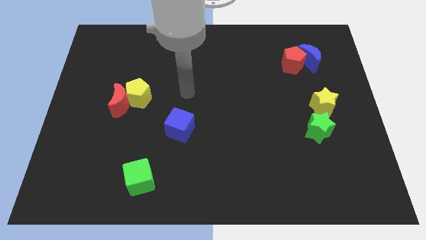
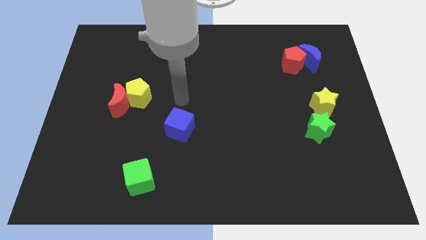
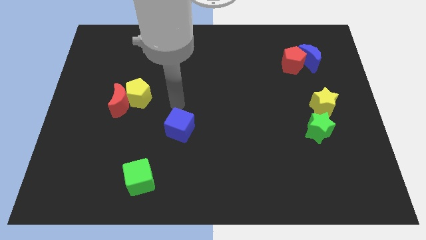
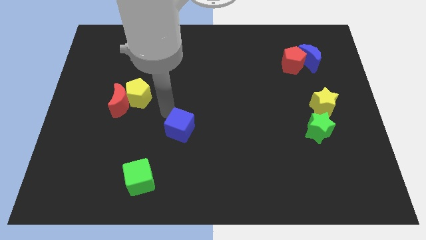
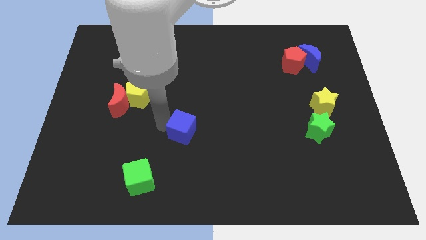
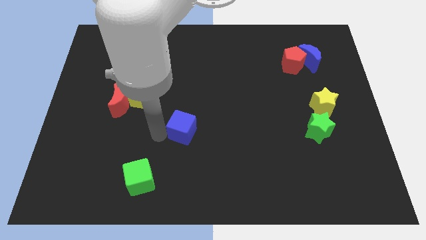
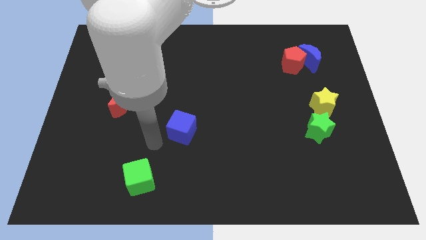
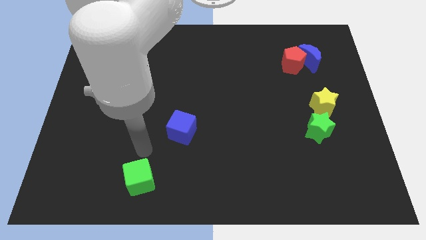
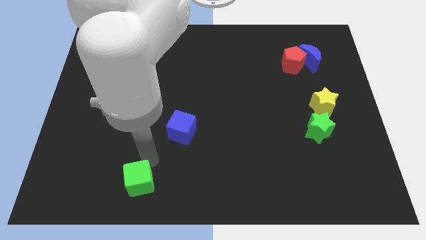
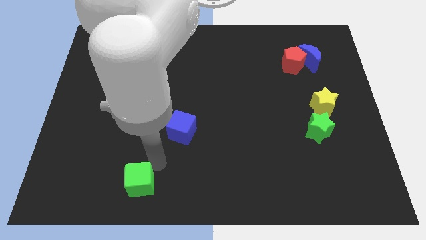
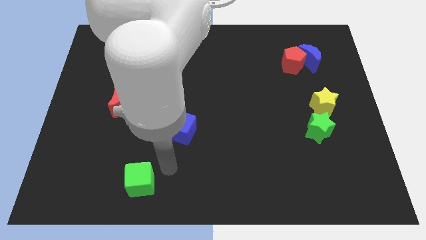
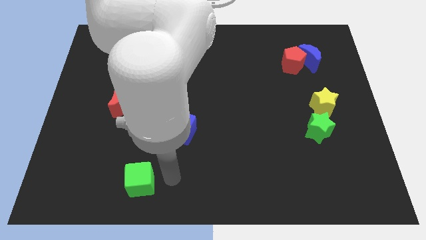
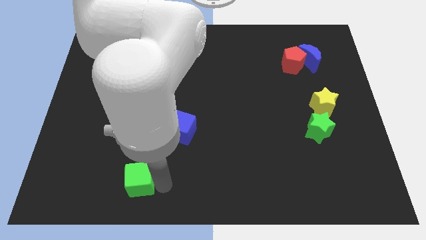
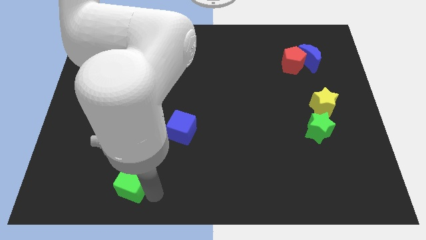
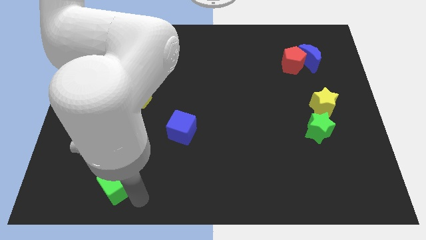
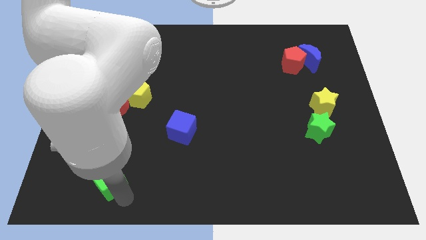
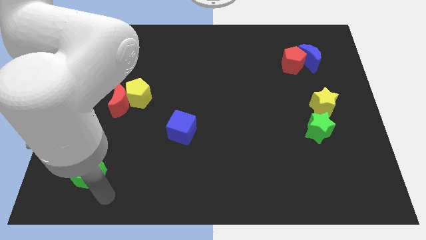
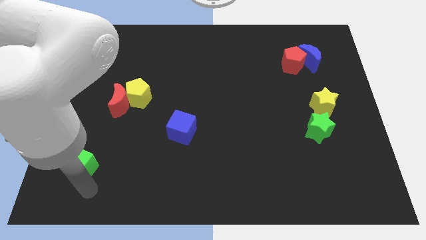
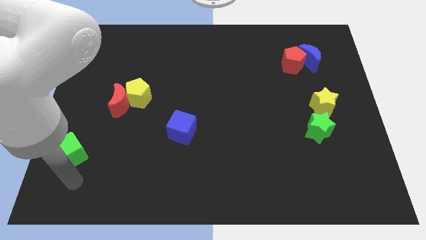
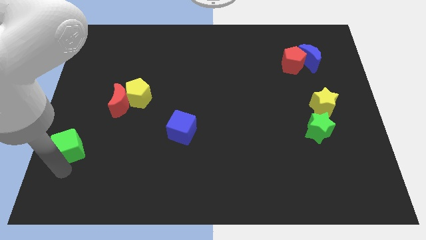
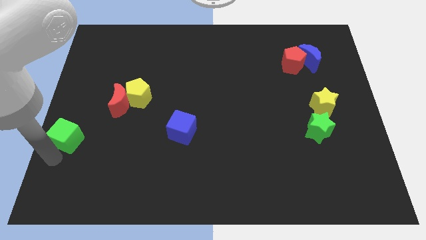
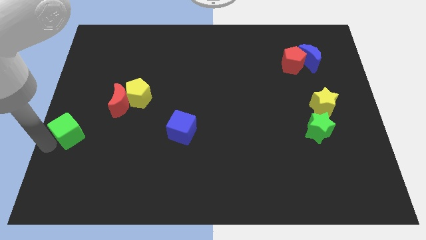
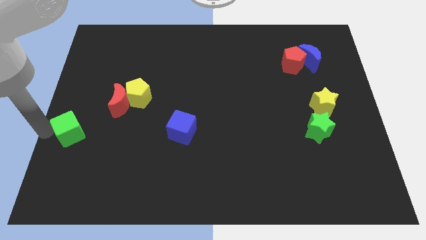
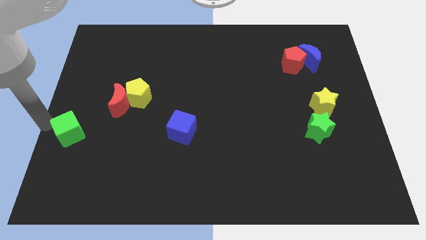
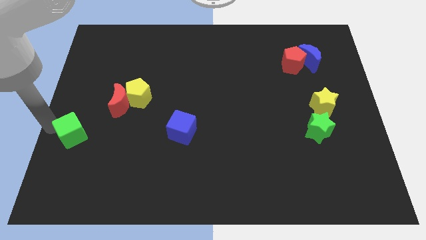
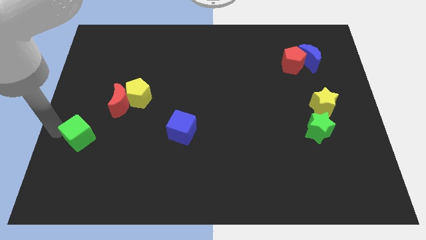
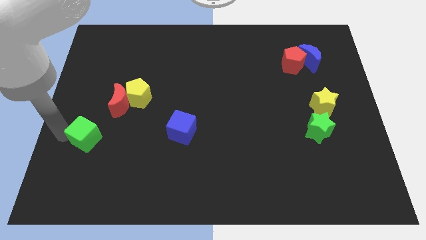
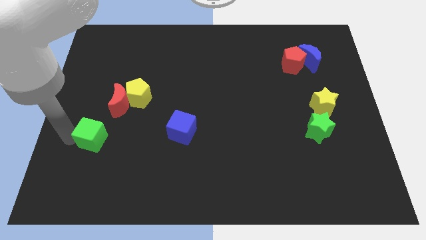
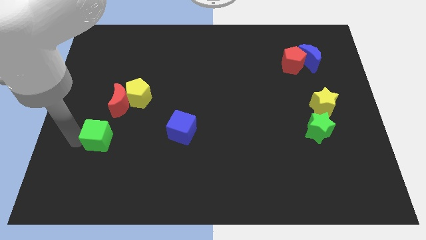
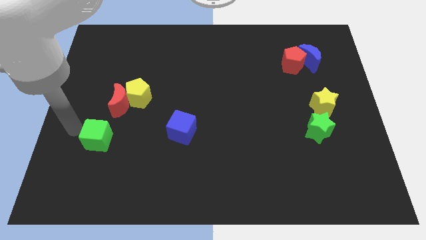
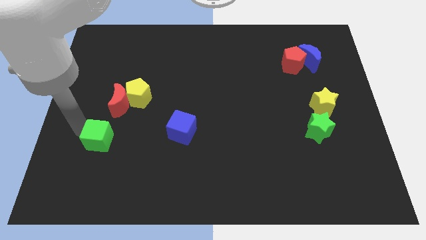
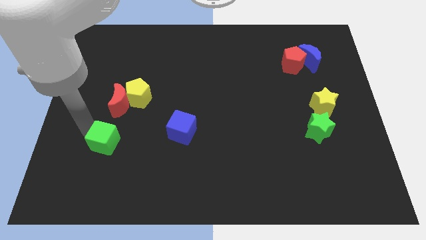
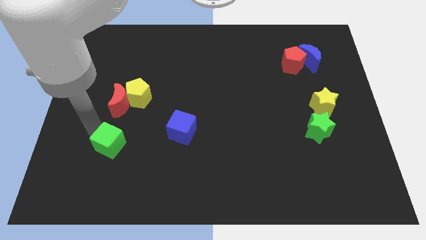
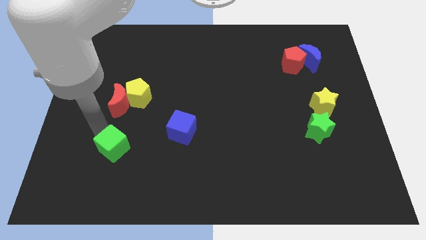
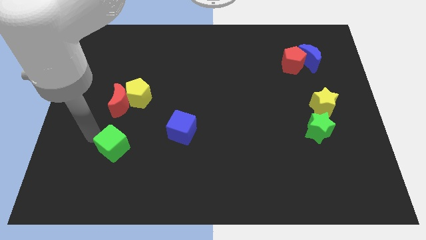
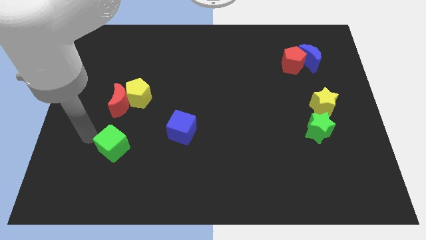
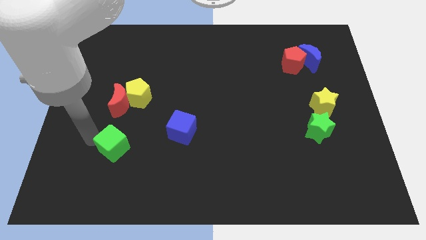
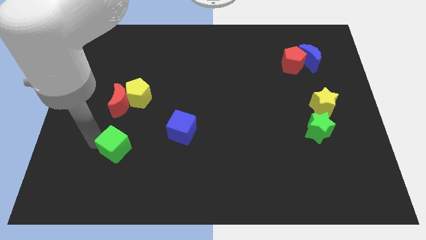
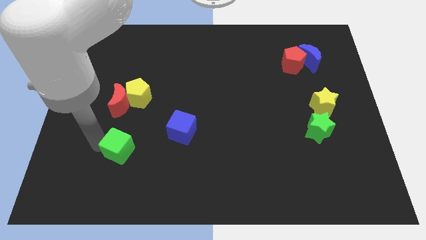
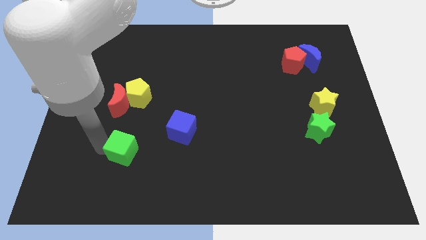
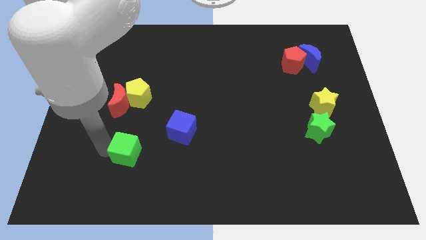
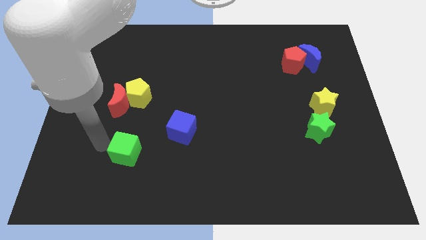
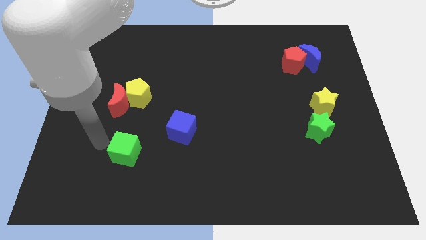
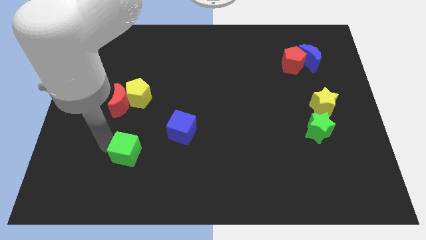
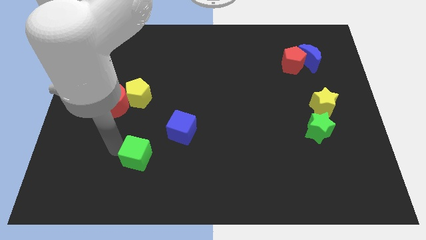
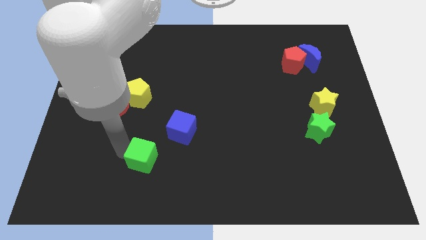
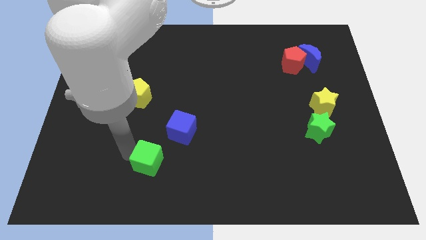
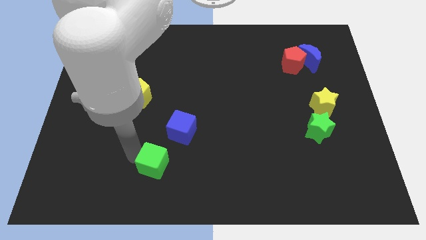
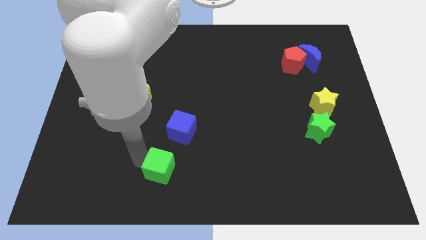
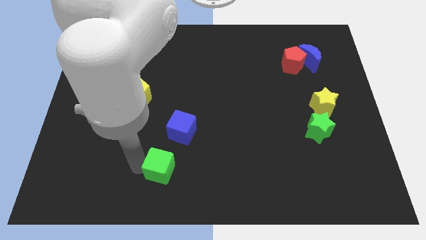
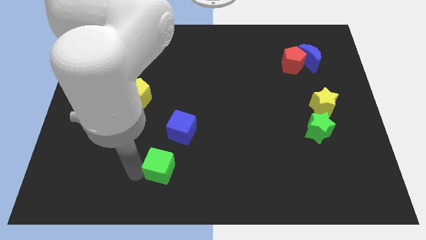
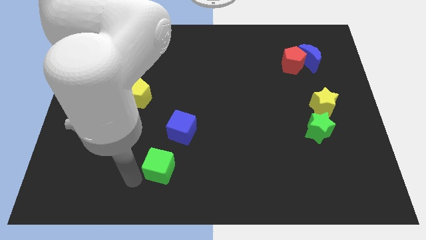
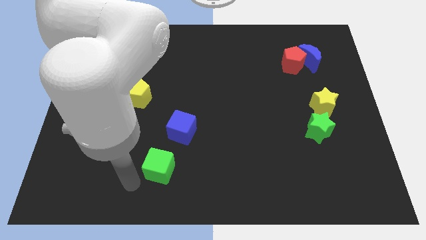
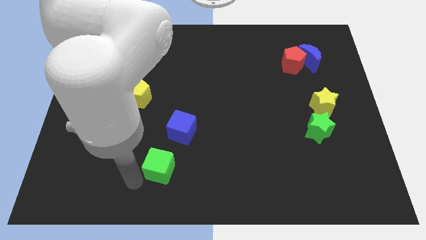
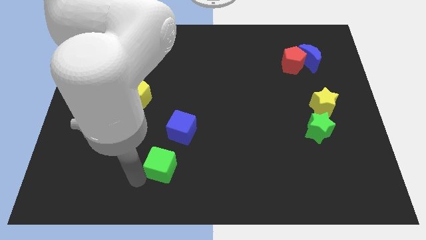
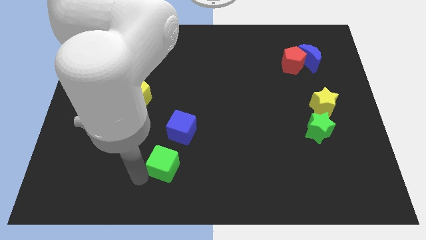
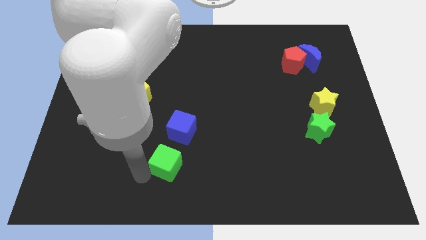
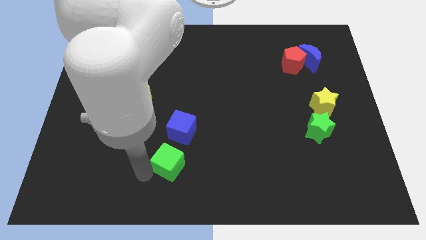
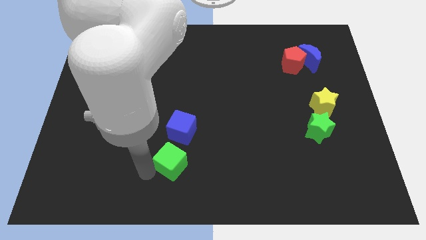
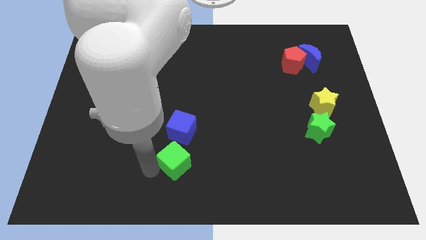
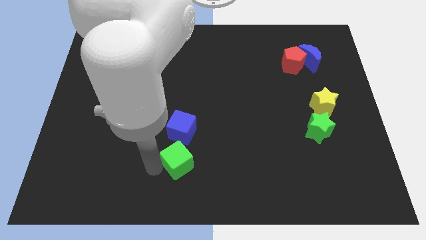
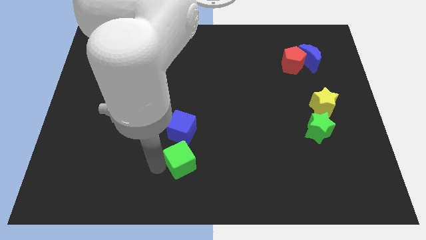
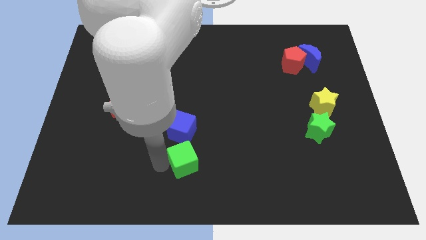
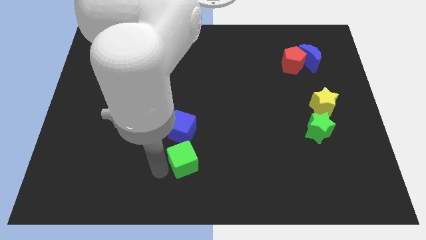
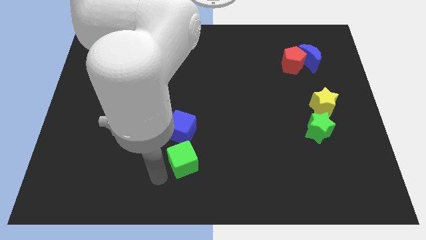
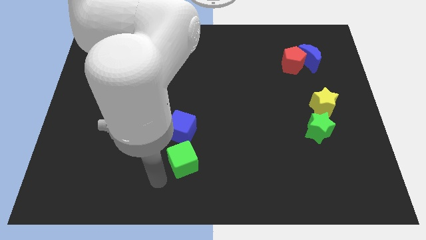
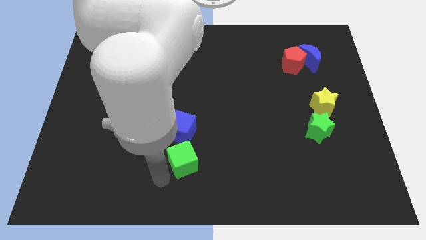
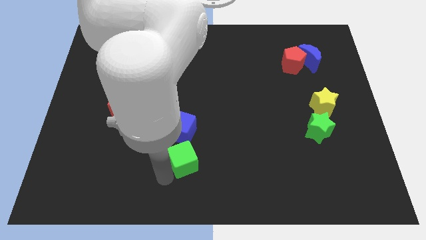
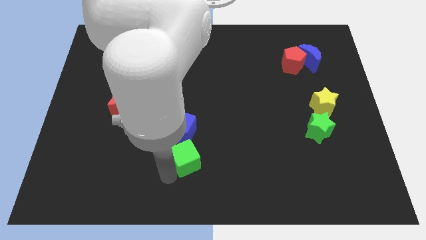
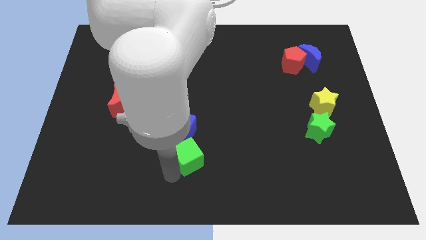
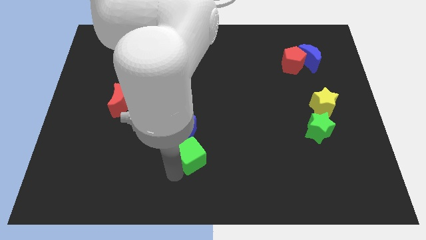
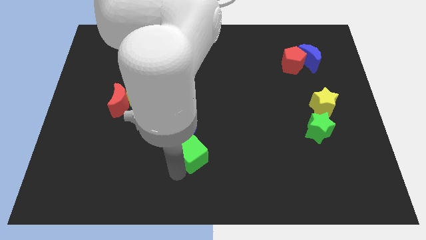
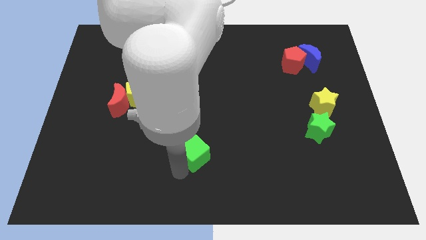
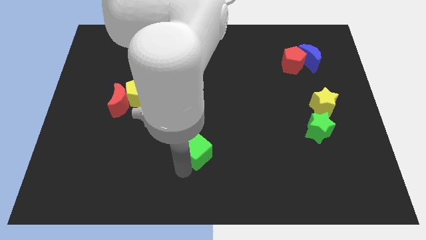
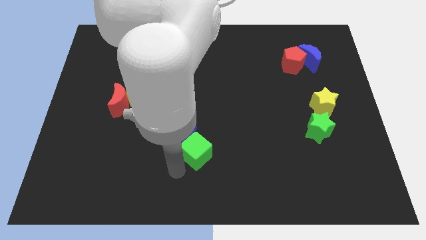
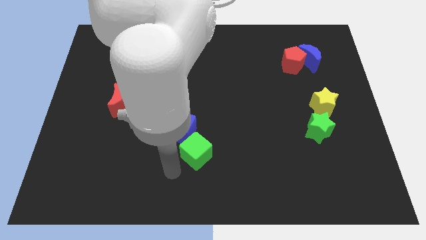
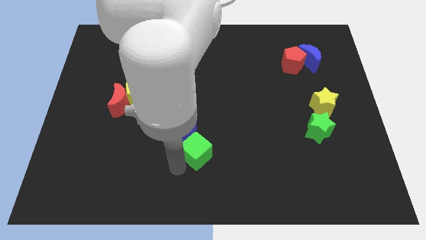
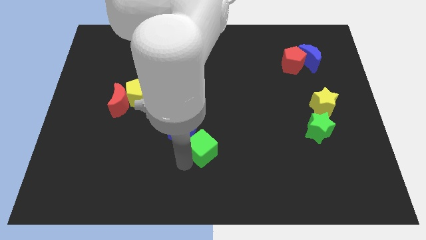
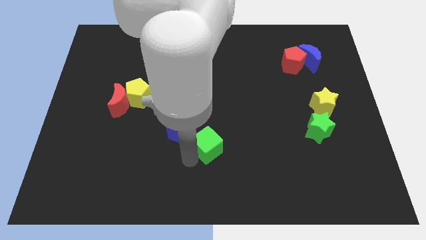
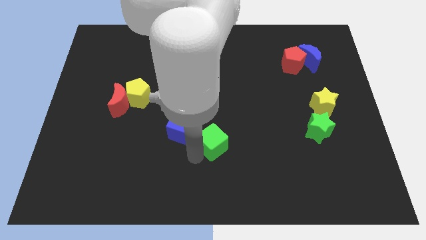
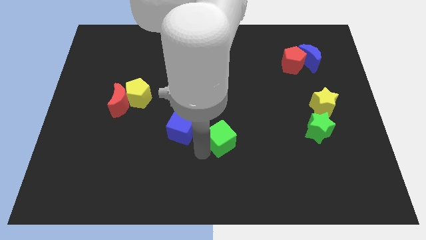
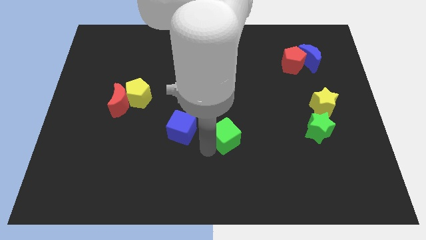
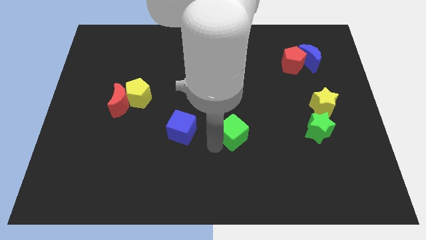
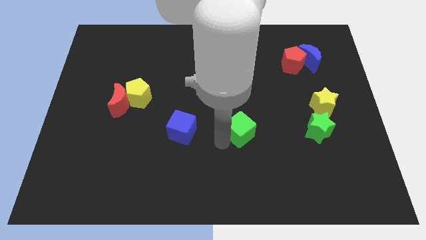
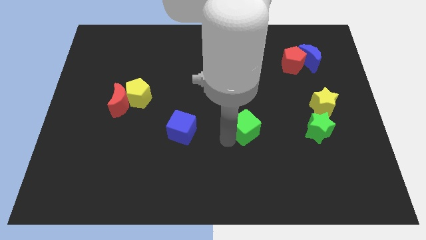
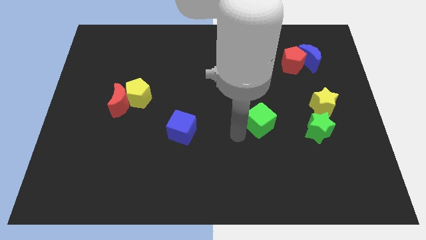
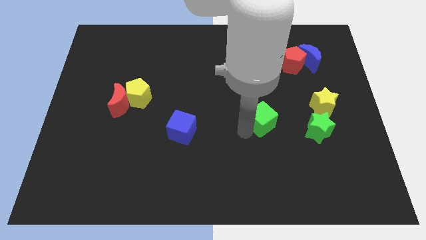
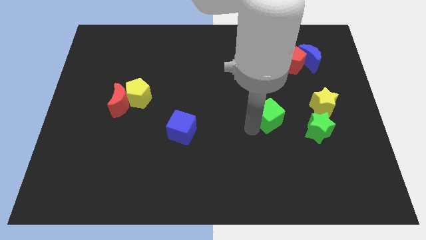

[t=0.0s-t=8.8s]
put the green cube to the left of the yellow star
